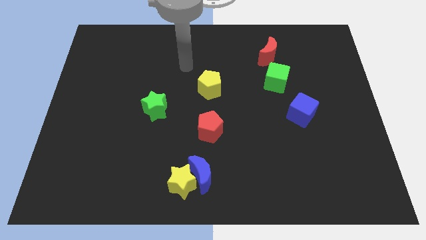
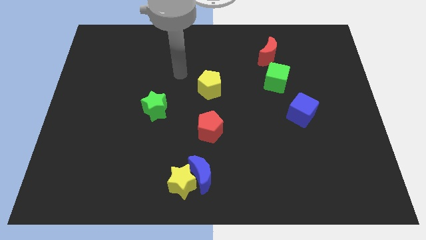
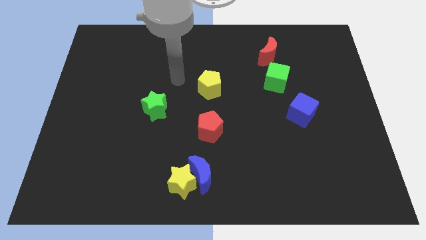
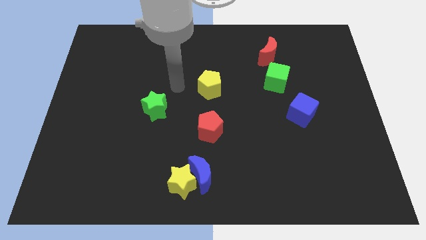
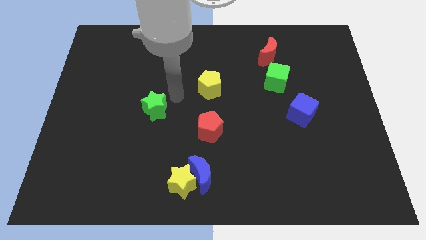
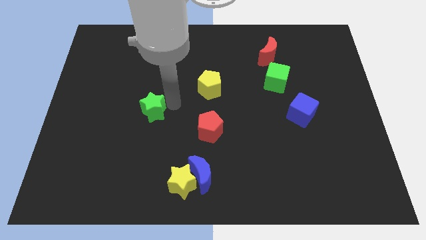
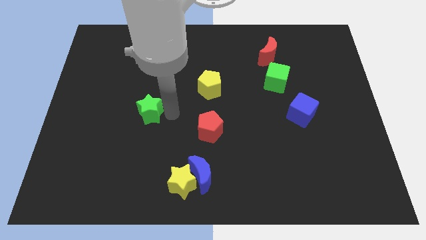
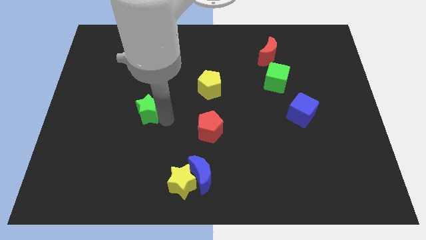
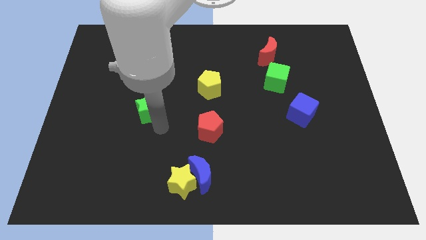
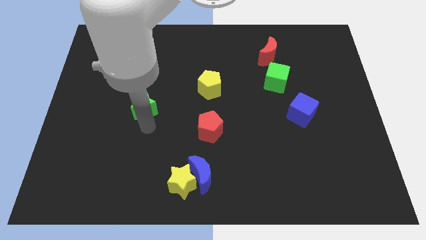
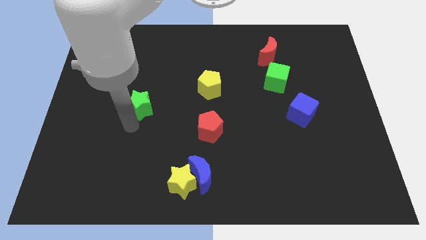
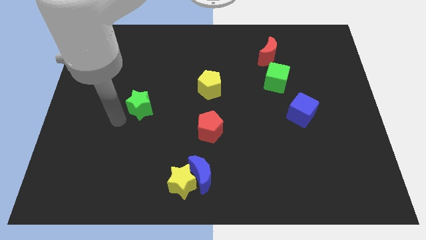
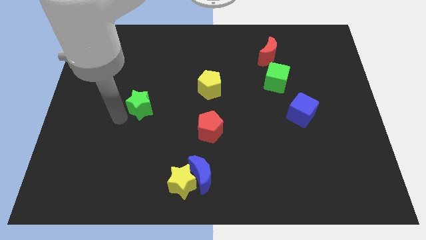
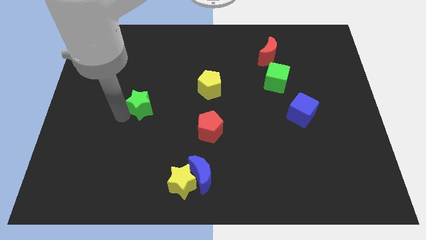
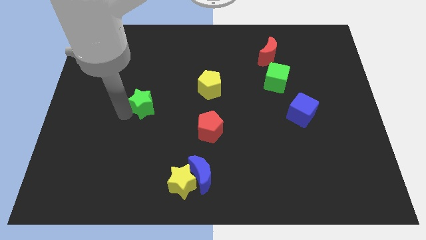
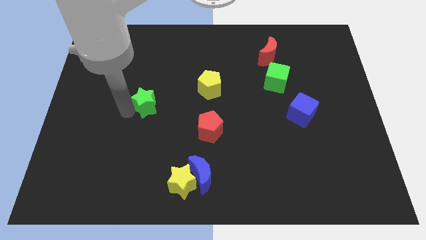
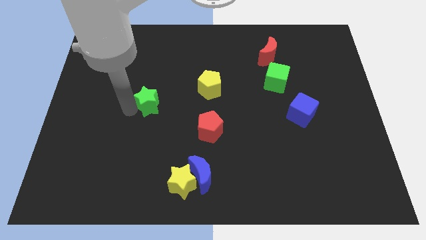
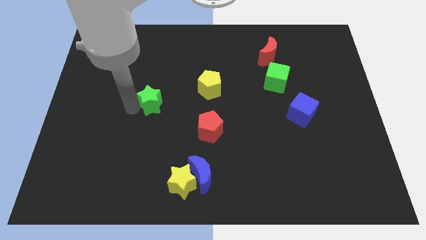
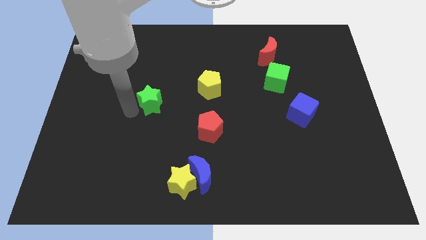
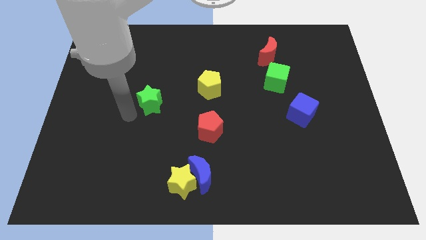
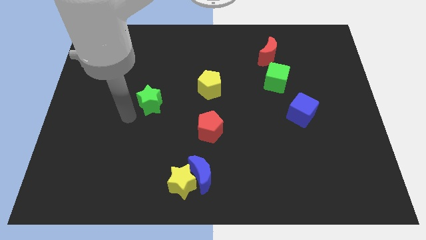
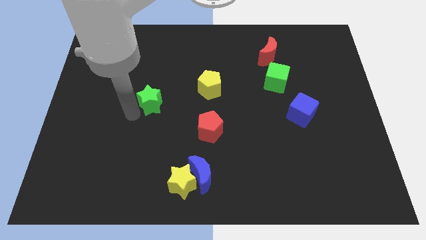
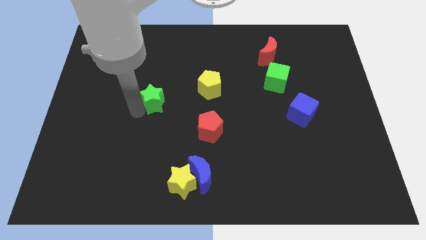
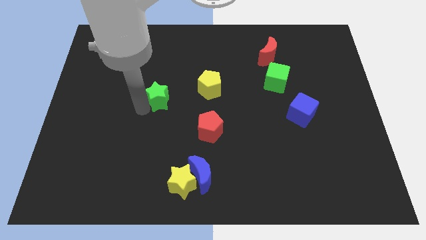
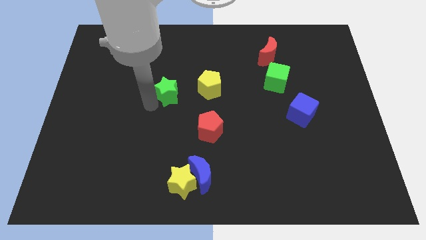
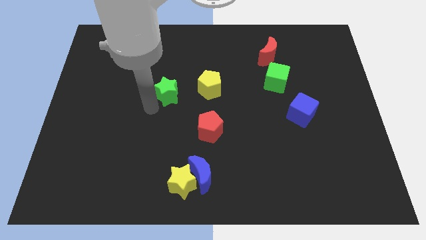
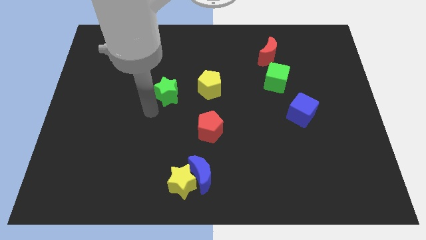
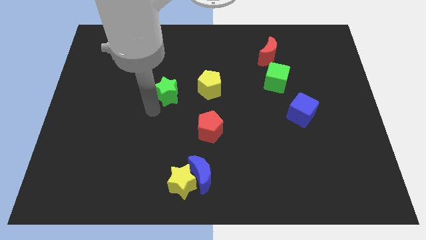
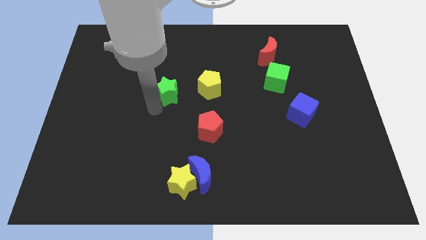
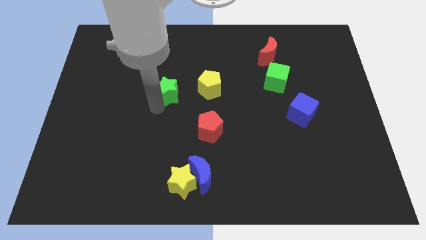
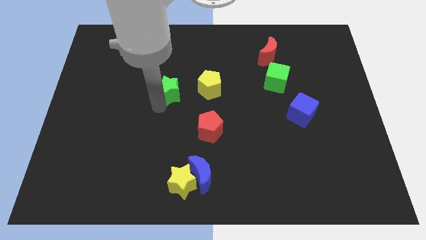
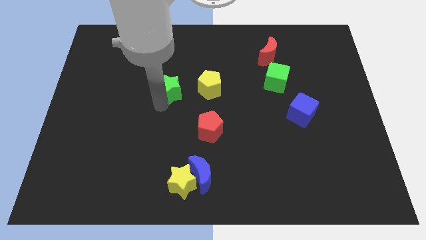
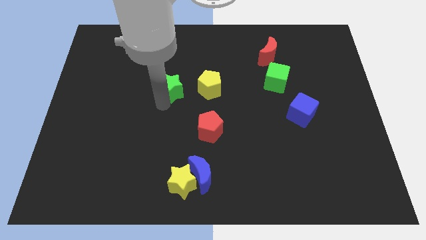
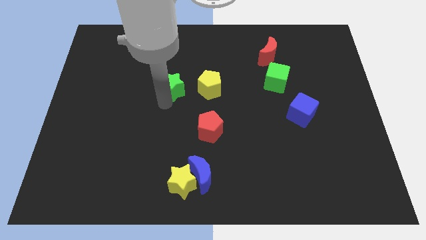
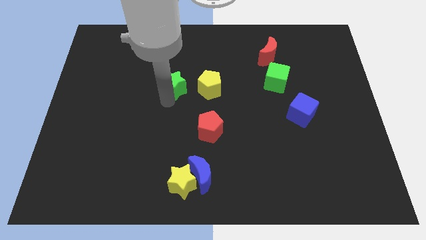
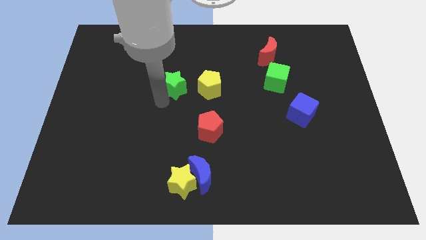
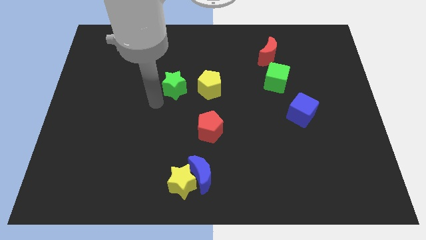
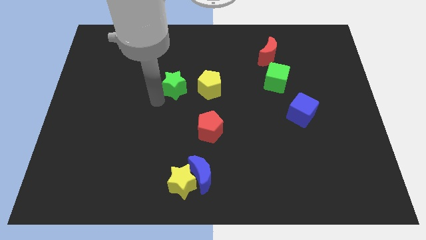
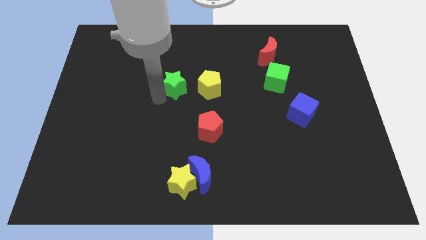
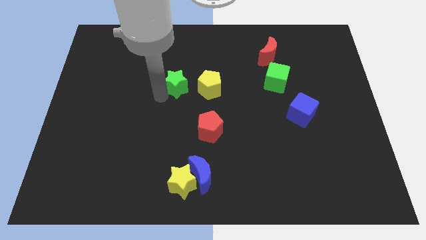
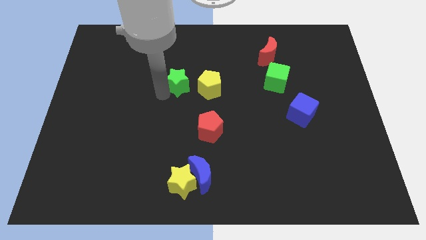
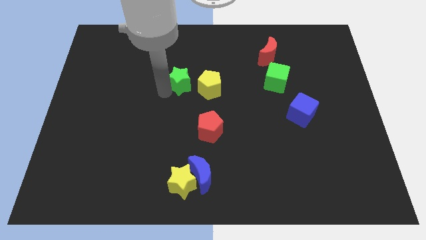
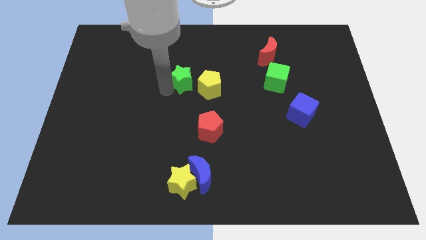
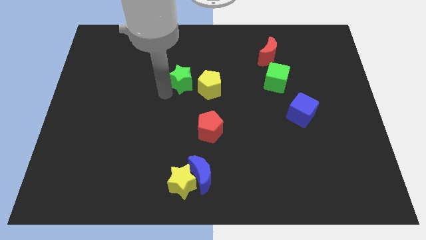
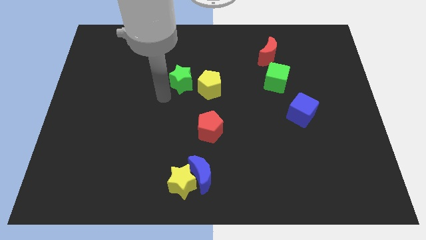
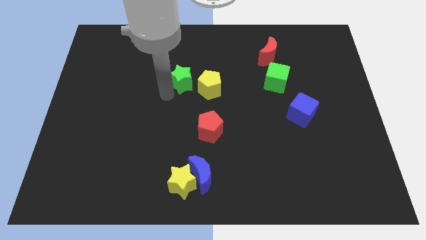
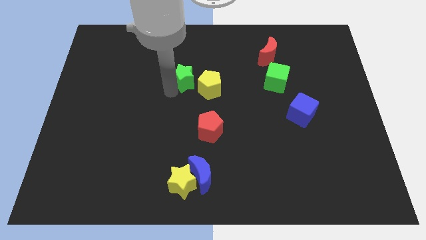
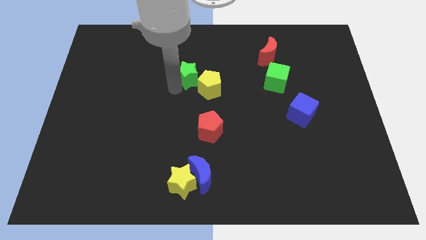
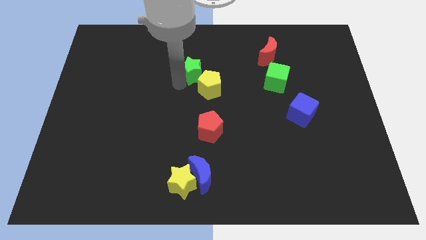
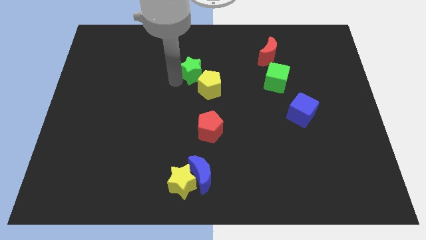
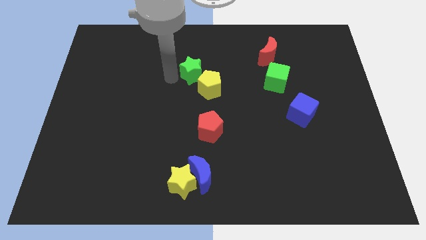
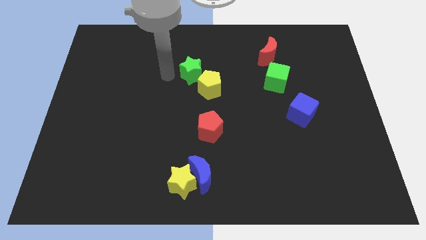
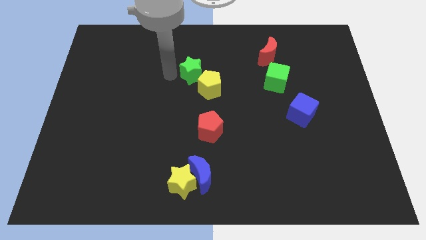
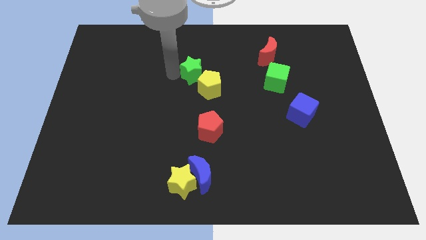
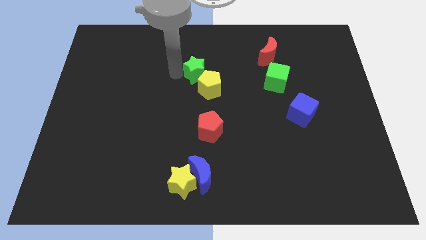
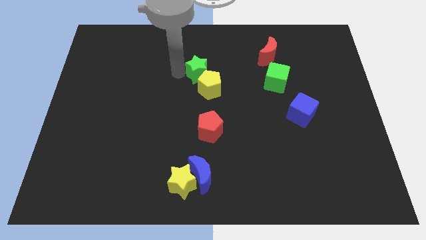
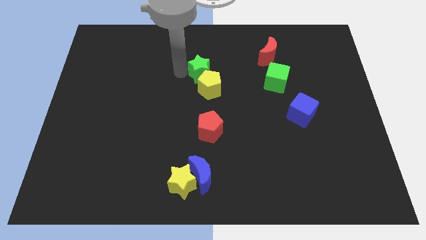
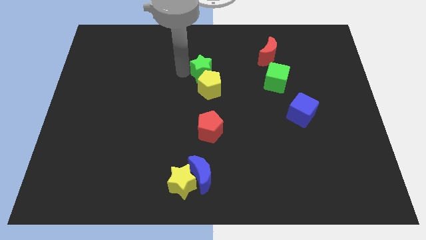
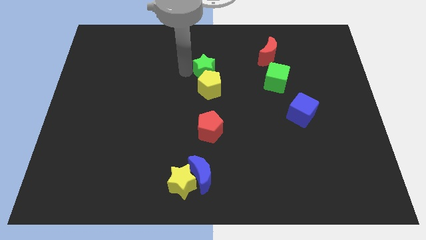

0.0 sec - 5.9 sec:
push the green star diagonally up and to the right of the yellow pentagon

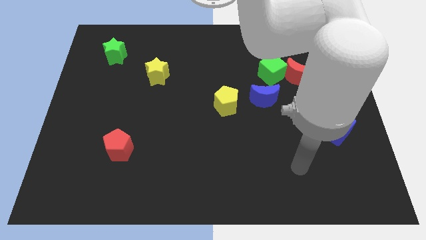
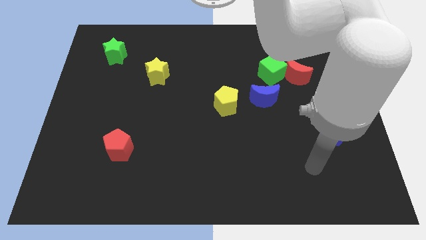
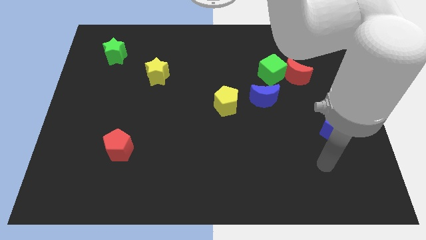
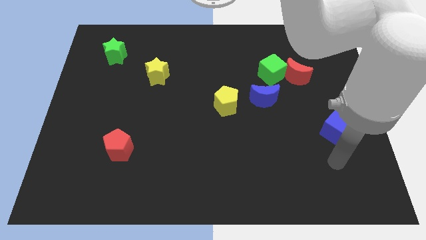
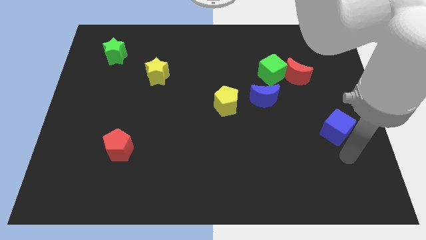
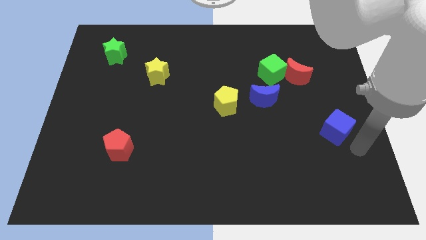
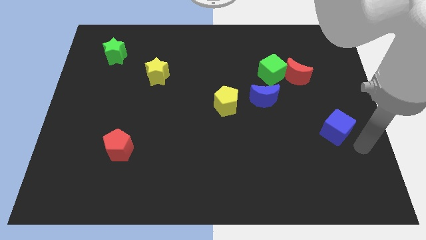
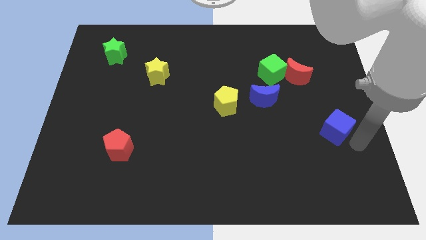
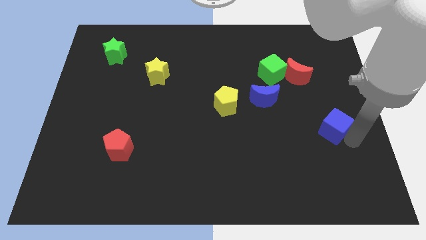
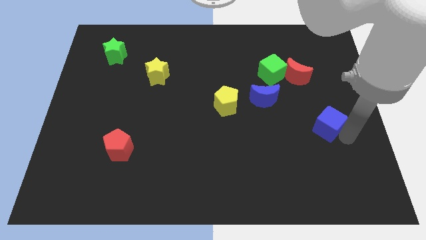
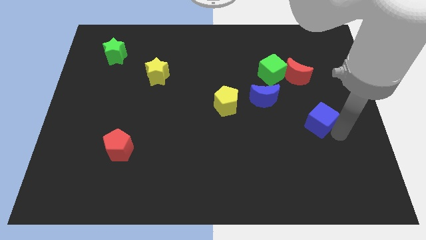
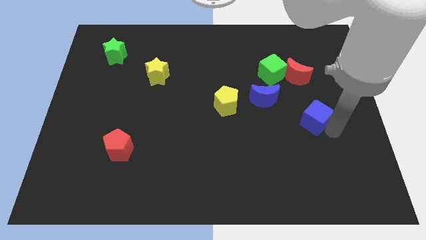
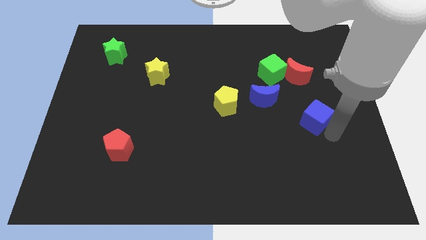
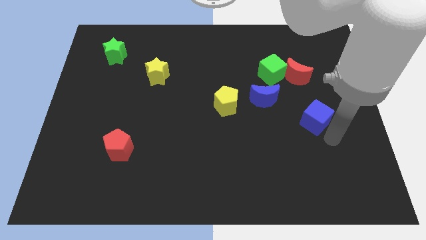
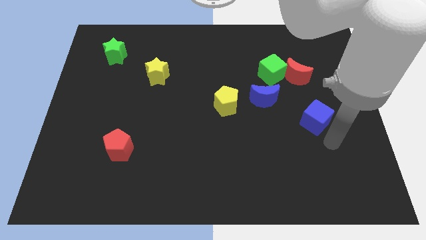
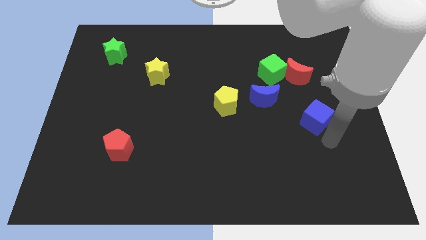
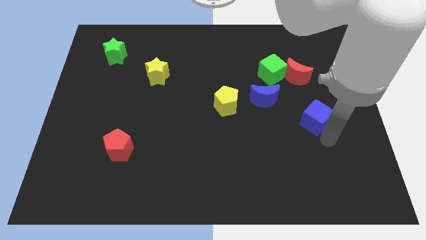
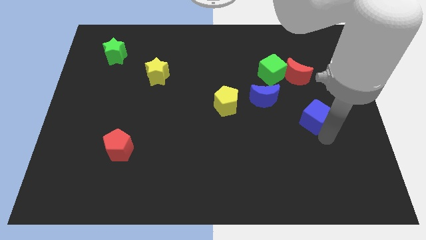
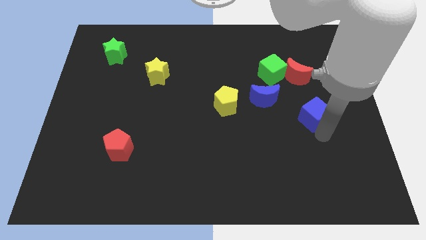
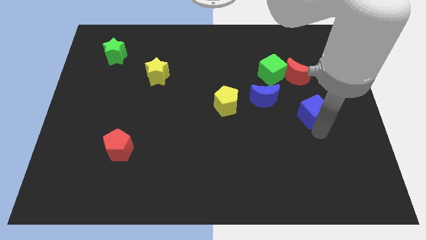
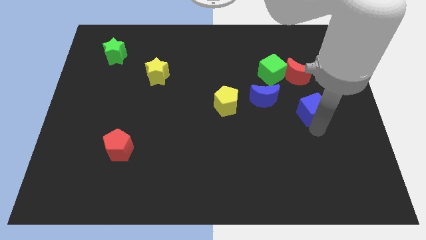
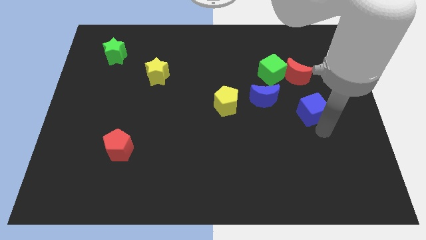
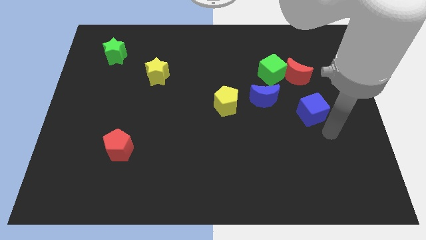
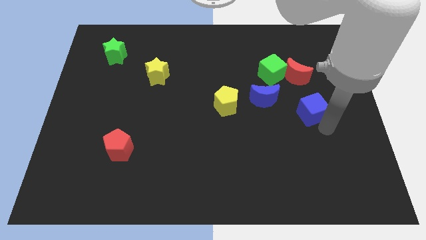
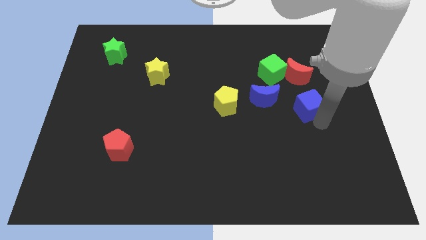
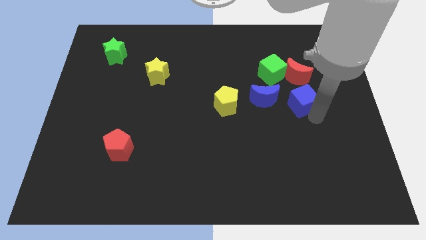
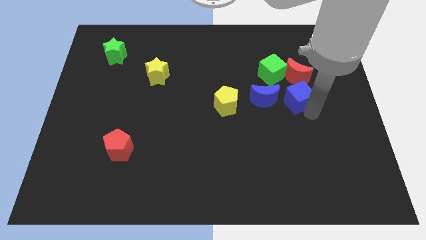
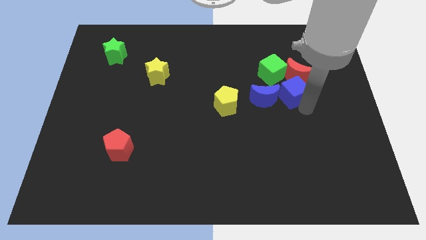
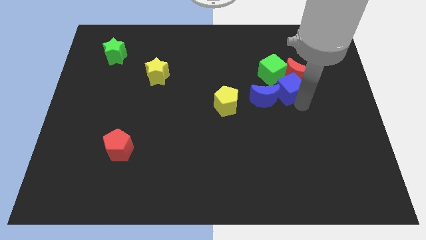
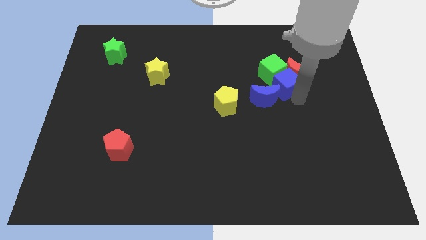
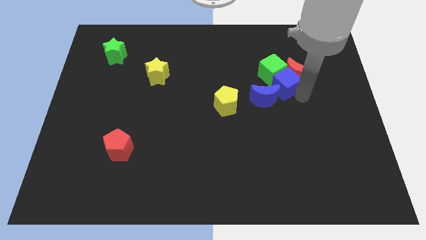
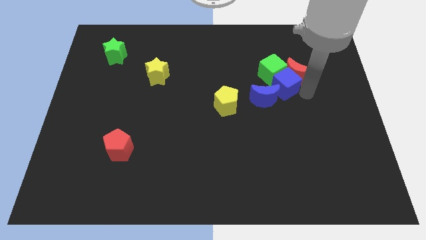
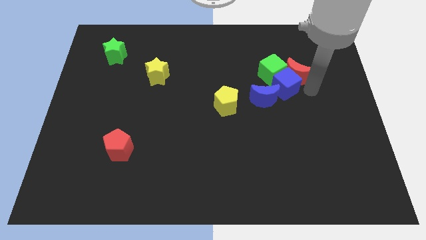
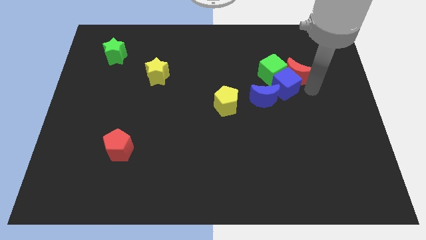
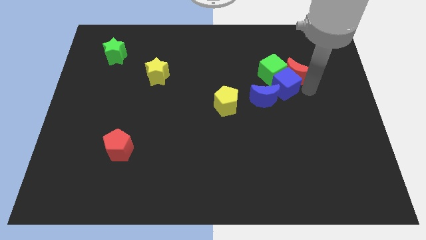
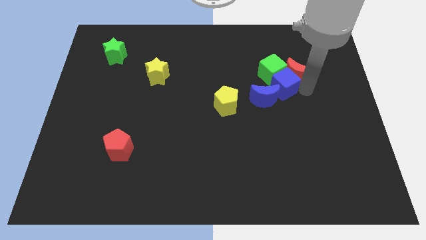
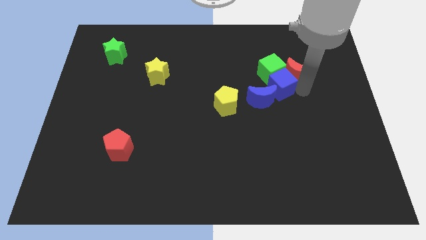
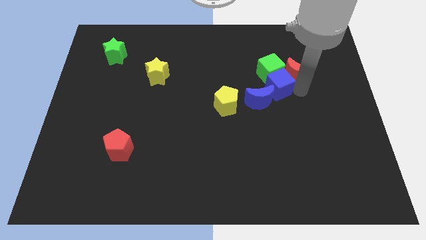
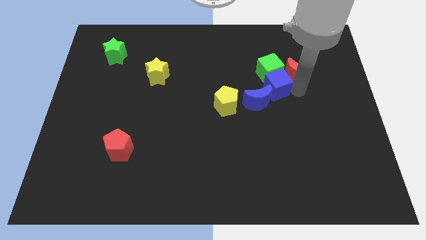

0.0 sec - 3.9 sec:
move the blue cube to the top side of the blue moon
